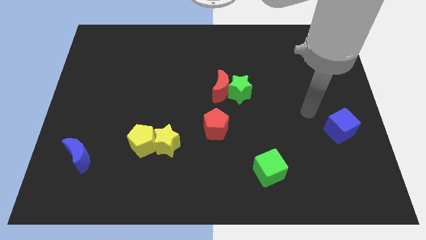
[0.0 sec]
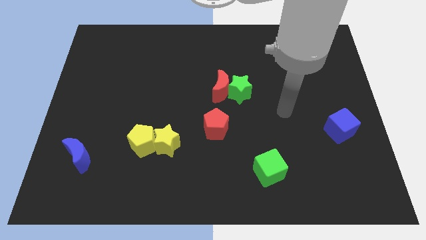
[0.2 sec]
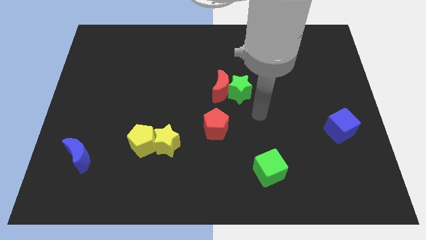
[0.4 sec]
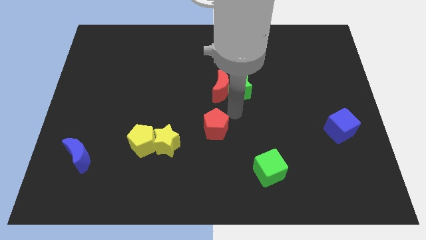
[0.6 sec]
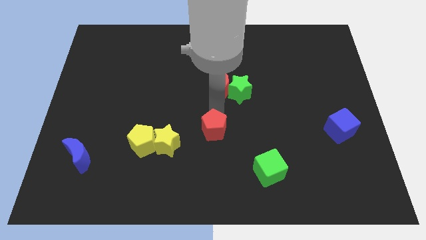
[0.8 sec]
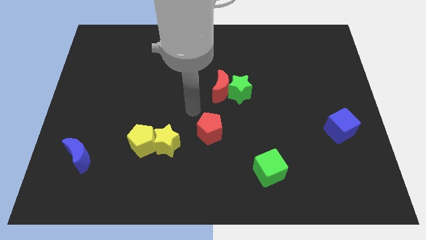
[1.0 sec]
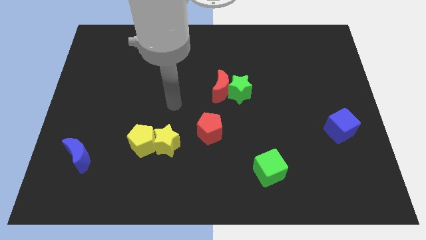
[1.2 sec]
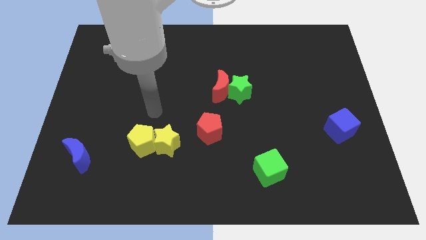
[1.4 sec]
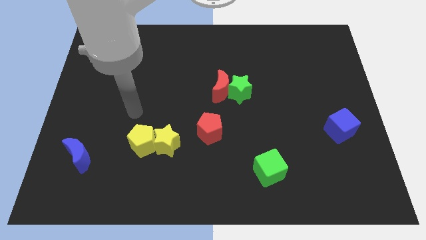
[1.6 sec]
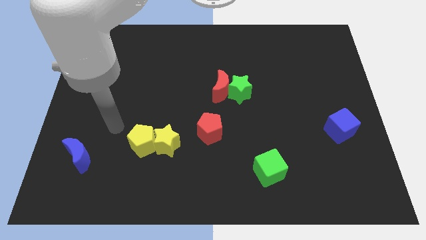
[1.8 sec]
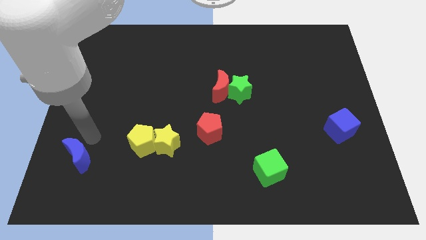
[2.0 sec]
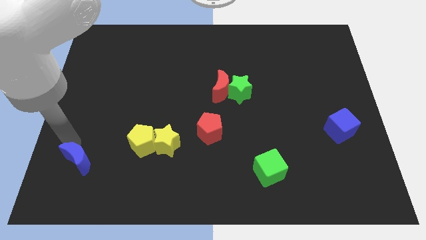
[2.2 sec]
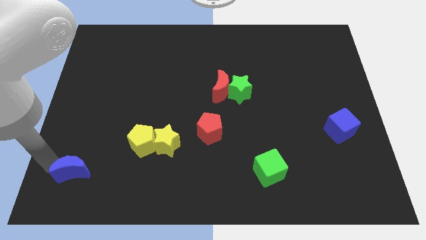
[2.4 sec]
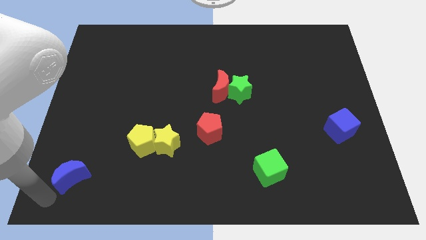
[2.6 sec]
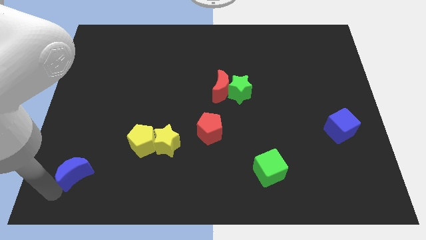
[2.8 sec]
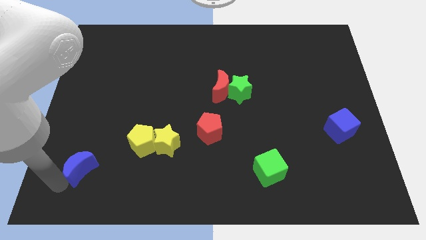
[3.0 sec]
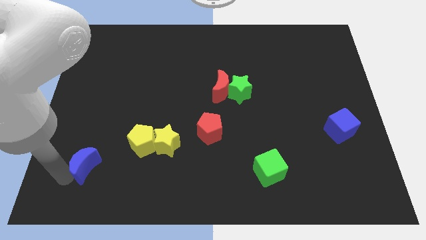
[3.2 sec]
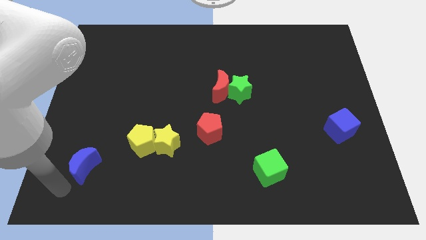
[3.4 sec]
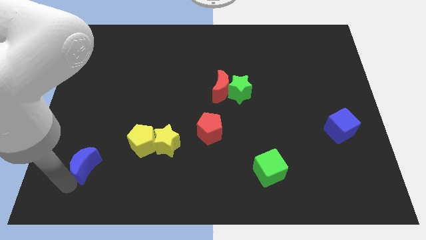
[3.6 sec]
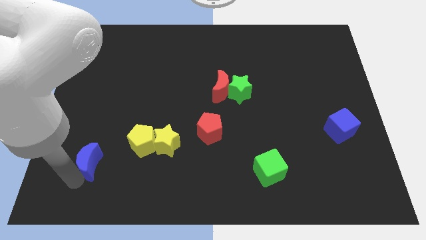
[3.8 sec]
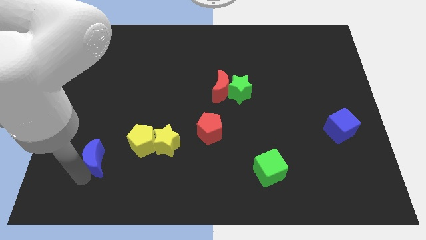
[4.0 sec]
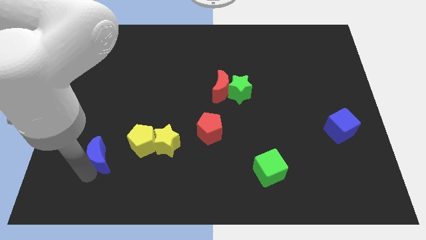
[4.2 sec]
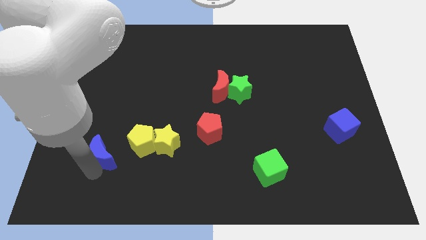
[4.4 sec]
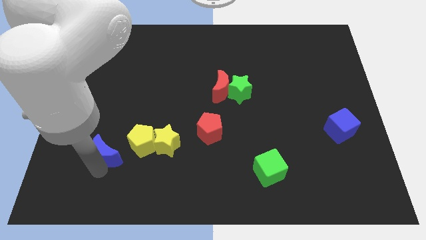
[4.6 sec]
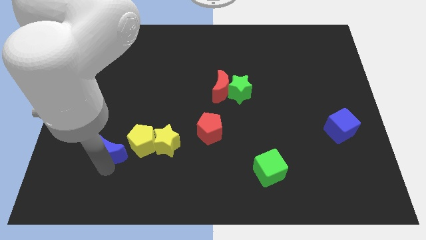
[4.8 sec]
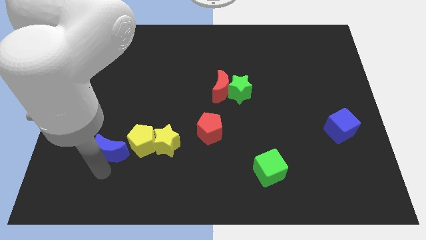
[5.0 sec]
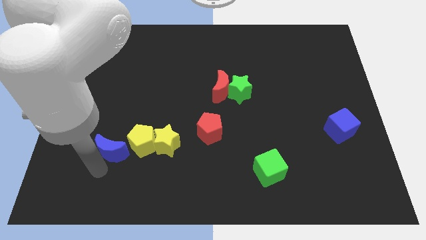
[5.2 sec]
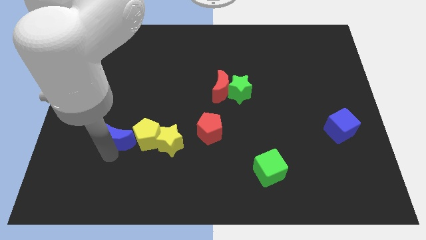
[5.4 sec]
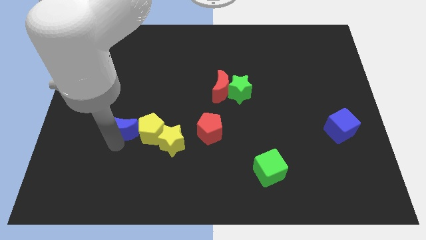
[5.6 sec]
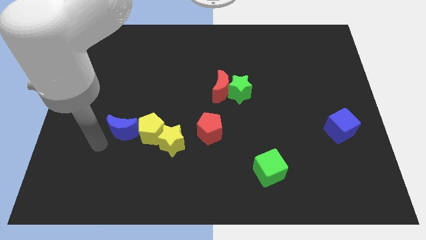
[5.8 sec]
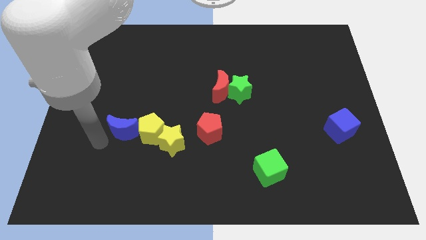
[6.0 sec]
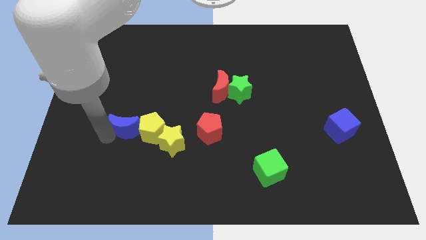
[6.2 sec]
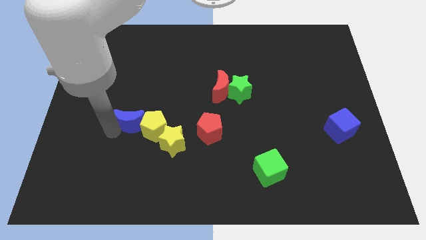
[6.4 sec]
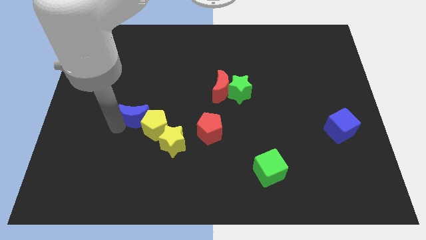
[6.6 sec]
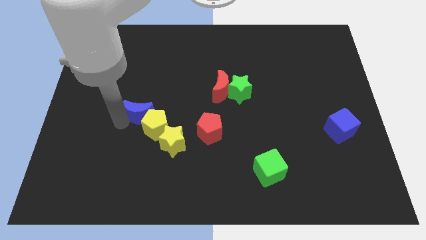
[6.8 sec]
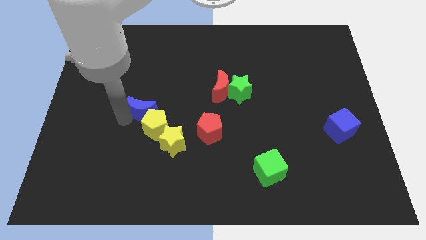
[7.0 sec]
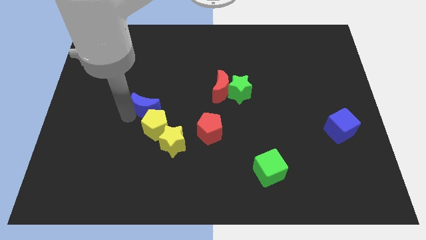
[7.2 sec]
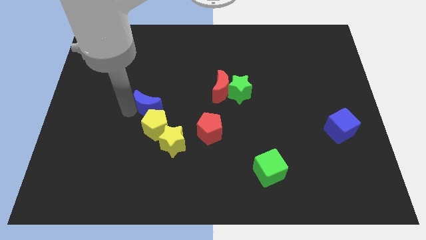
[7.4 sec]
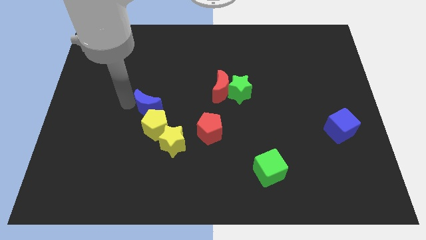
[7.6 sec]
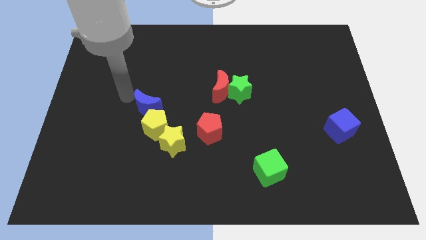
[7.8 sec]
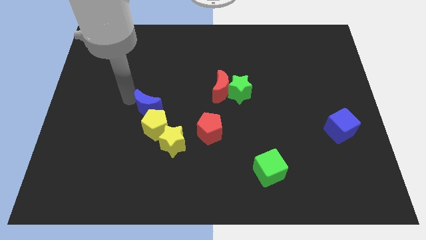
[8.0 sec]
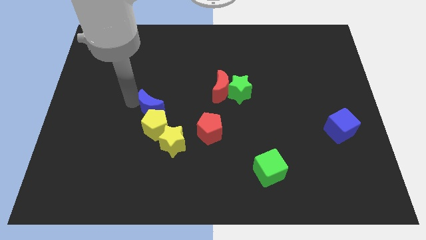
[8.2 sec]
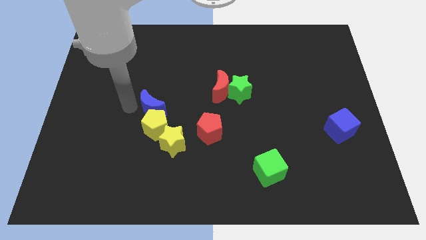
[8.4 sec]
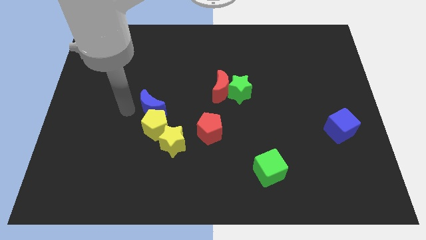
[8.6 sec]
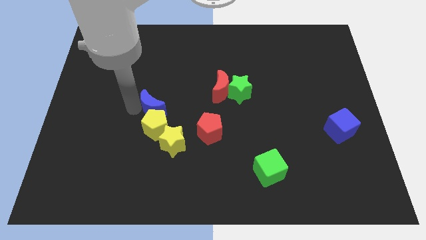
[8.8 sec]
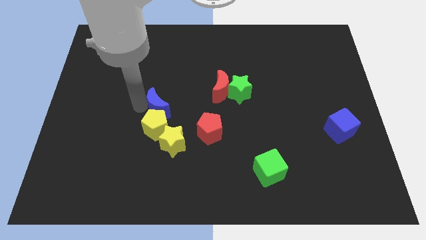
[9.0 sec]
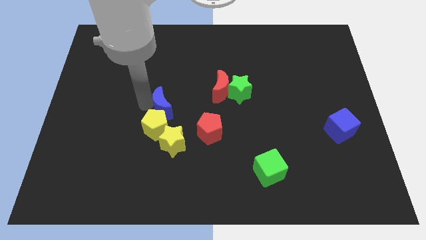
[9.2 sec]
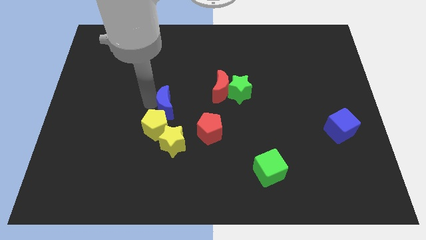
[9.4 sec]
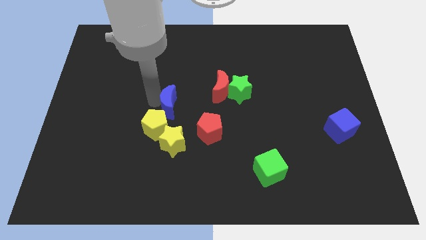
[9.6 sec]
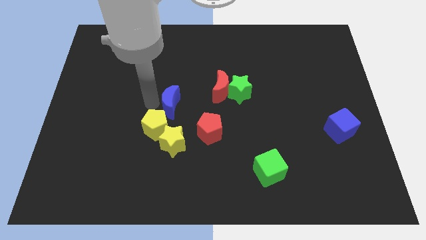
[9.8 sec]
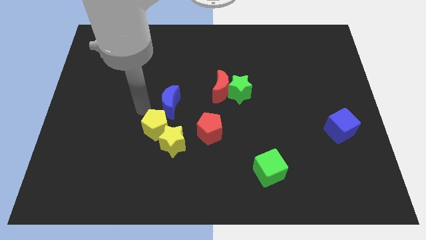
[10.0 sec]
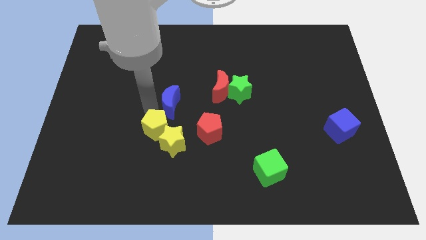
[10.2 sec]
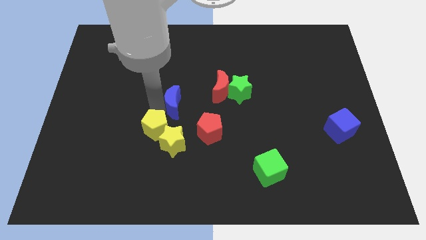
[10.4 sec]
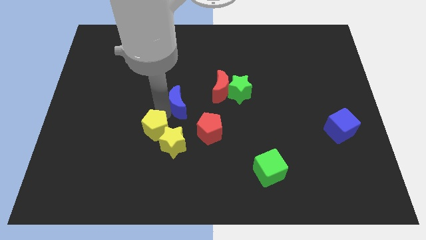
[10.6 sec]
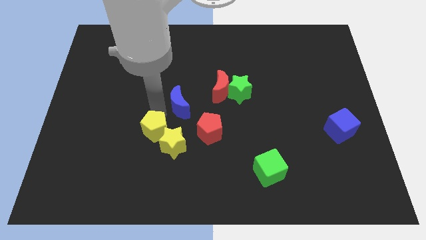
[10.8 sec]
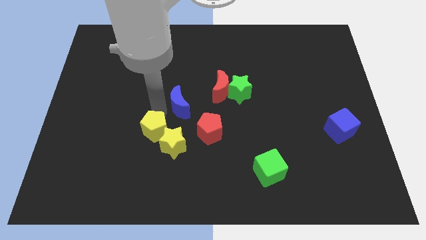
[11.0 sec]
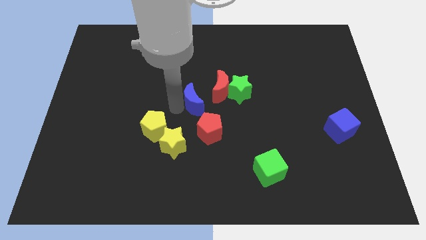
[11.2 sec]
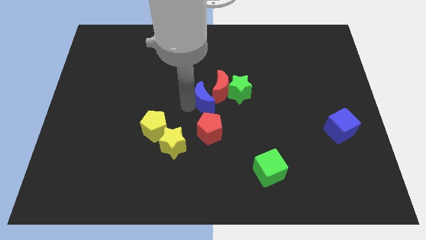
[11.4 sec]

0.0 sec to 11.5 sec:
put the blue moon next to the red moon

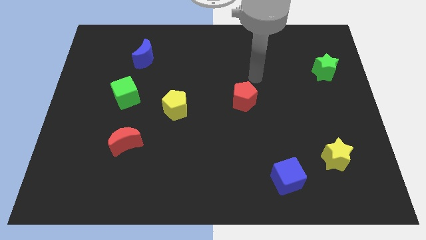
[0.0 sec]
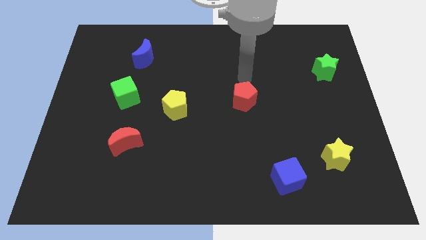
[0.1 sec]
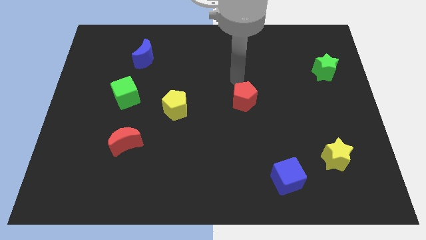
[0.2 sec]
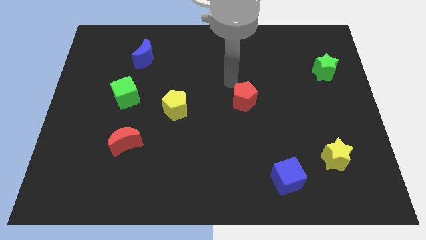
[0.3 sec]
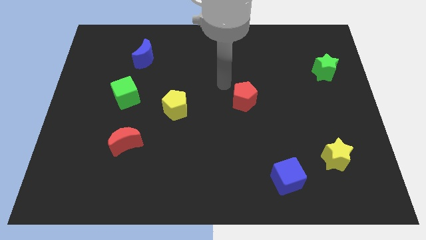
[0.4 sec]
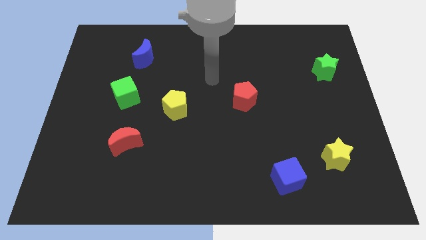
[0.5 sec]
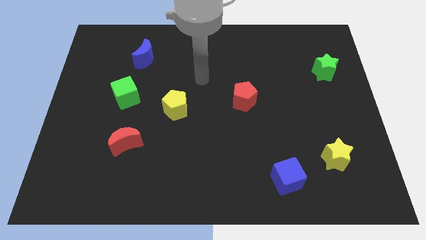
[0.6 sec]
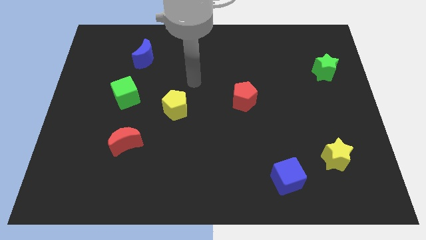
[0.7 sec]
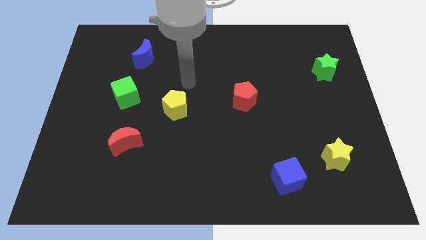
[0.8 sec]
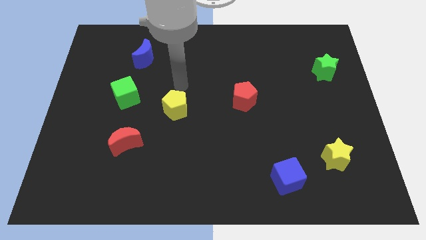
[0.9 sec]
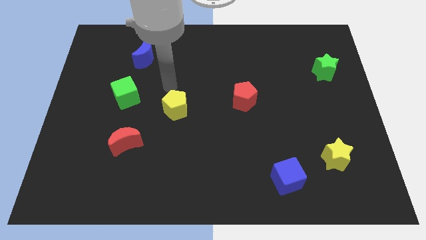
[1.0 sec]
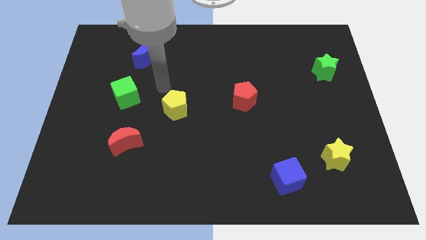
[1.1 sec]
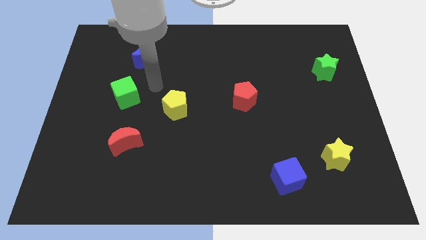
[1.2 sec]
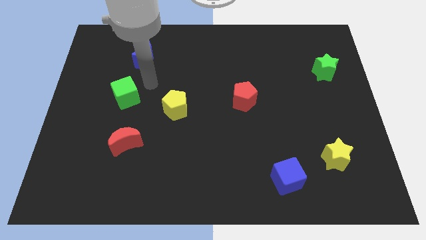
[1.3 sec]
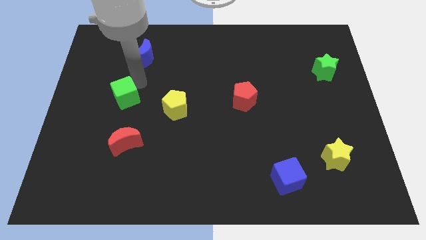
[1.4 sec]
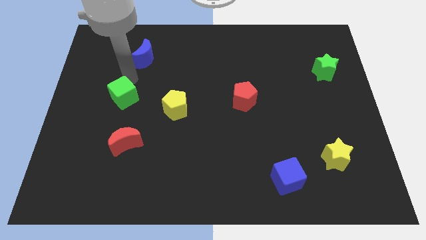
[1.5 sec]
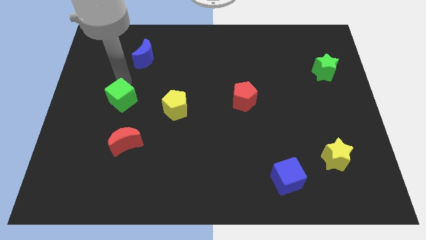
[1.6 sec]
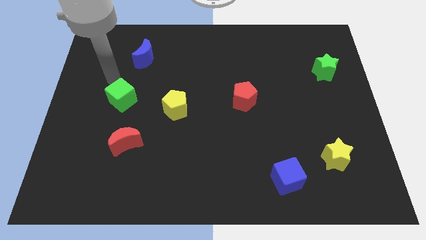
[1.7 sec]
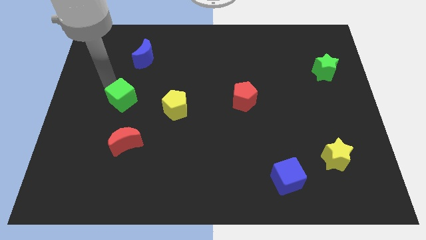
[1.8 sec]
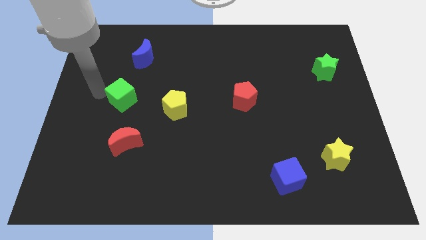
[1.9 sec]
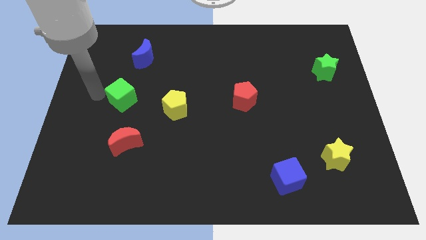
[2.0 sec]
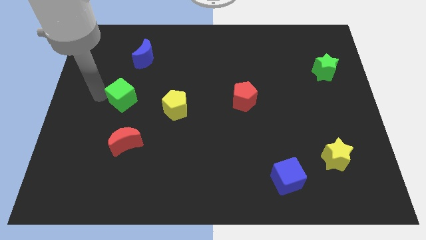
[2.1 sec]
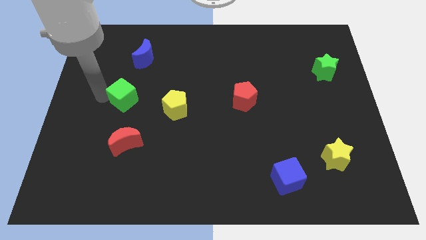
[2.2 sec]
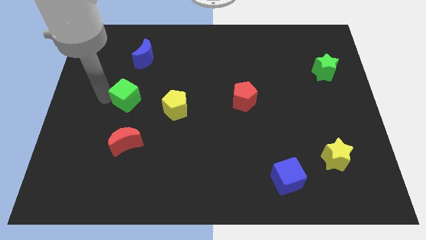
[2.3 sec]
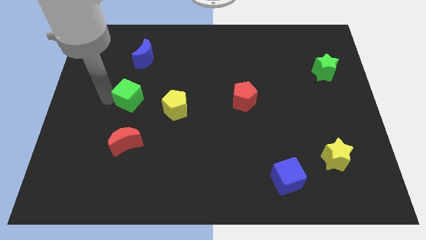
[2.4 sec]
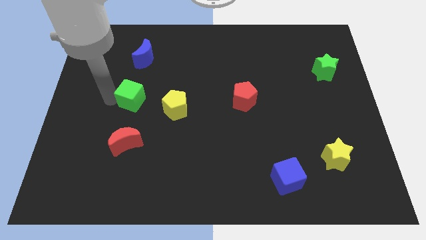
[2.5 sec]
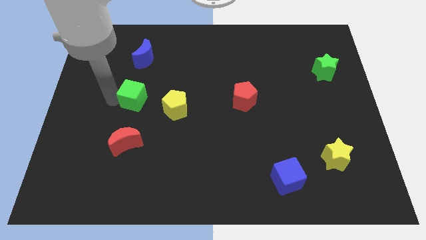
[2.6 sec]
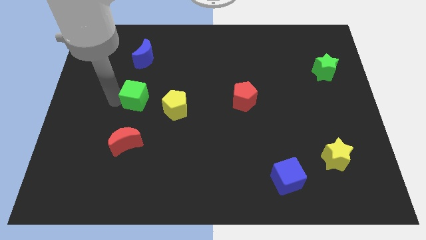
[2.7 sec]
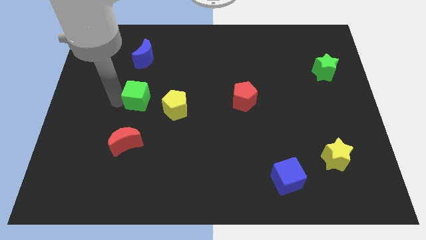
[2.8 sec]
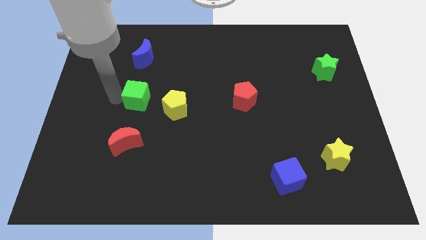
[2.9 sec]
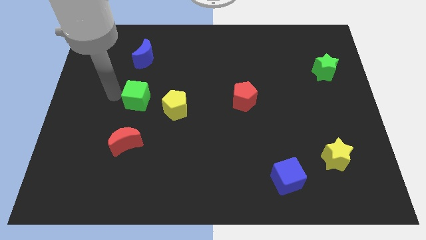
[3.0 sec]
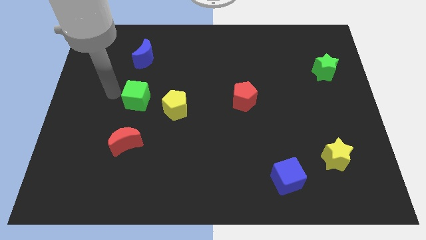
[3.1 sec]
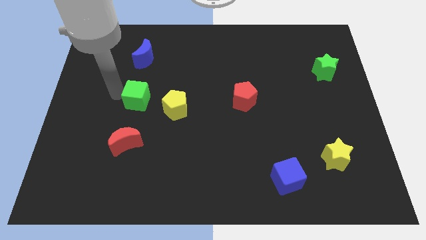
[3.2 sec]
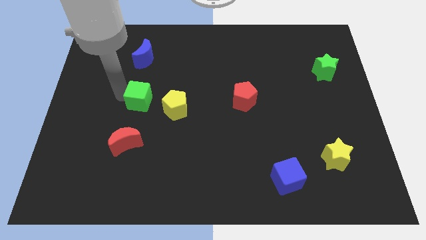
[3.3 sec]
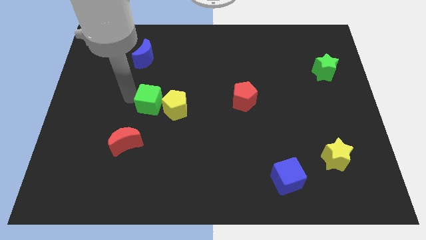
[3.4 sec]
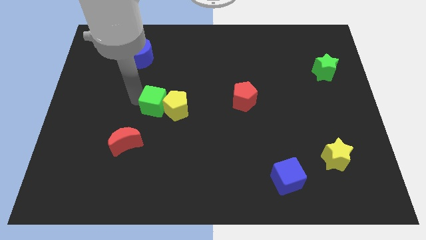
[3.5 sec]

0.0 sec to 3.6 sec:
push the green cube towards the yellow pentagon
